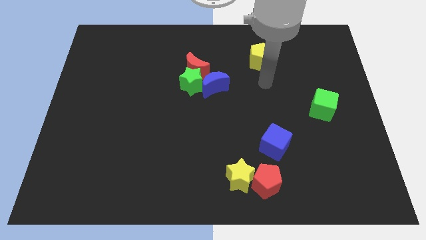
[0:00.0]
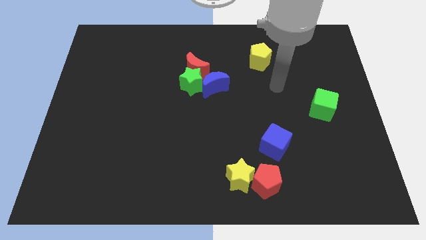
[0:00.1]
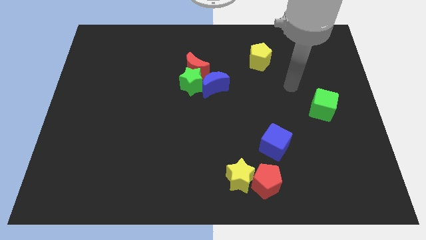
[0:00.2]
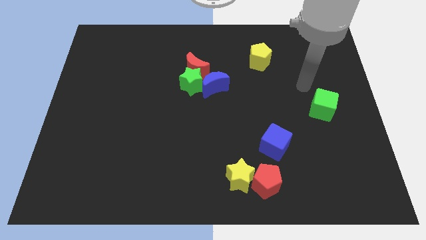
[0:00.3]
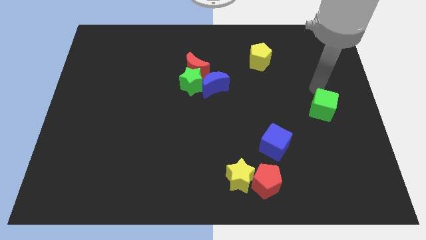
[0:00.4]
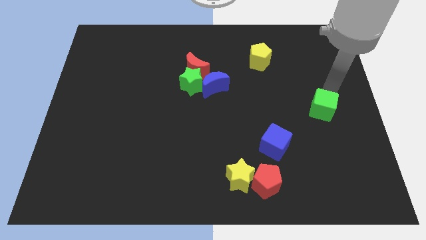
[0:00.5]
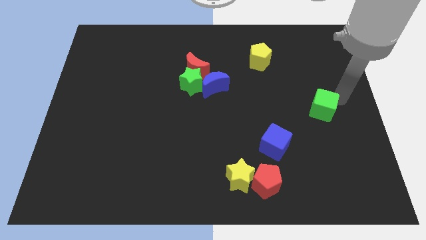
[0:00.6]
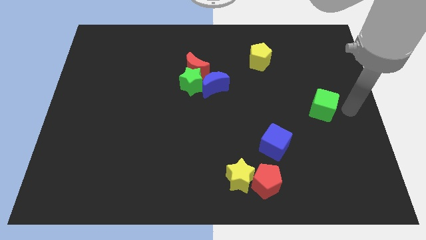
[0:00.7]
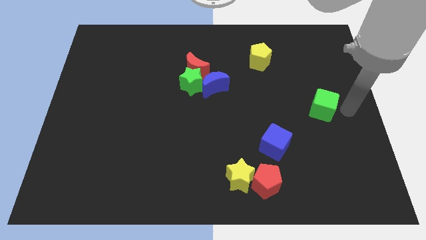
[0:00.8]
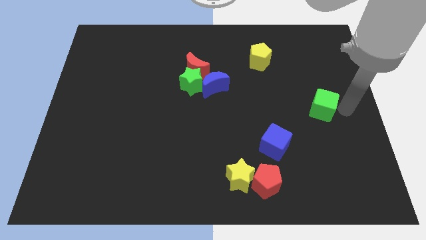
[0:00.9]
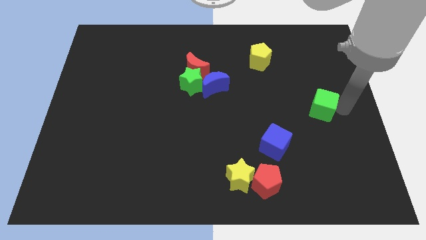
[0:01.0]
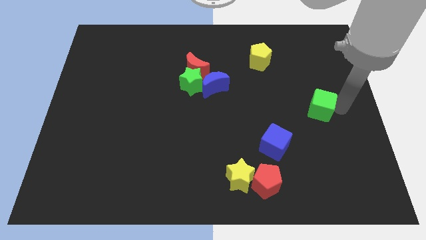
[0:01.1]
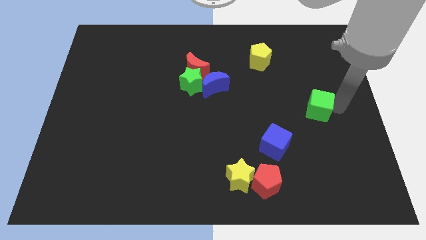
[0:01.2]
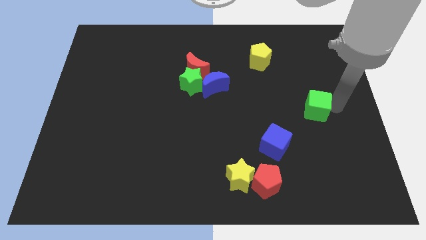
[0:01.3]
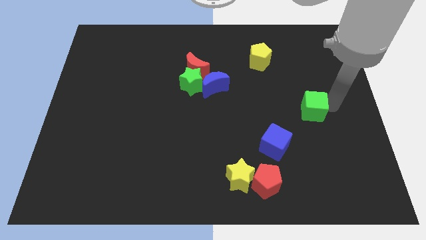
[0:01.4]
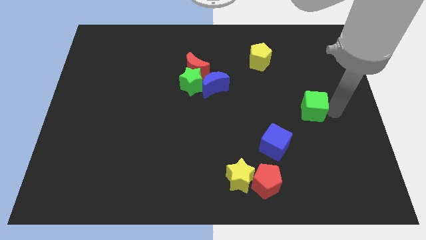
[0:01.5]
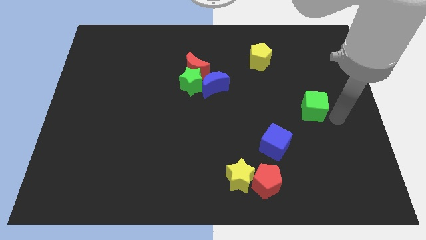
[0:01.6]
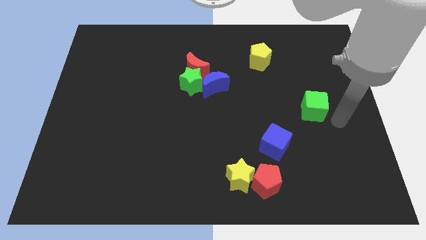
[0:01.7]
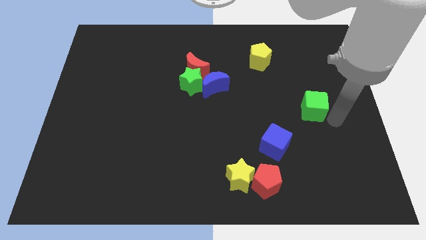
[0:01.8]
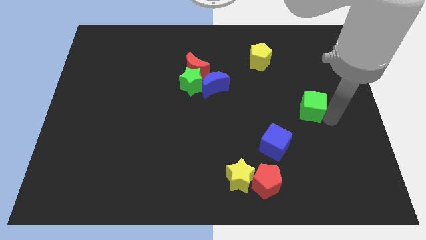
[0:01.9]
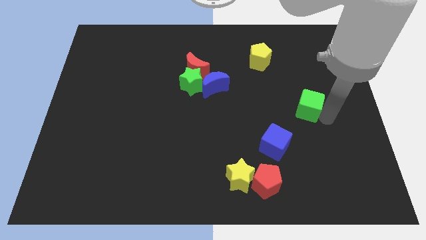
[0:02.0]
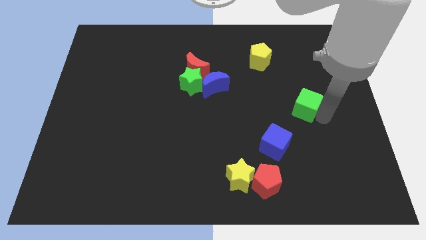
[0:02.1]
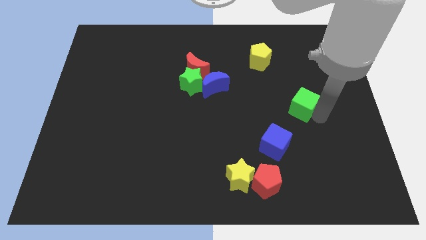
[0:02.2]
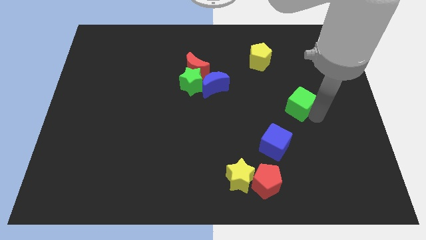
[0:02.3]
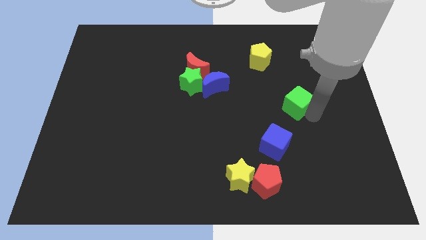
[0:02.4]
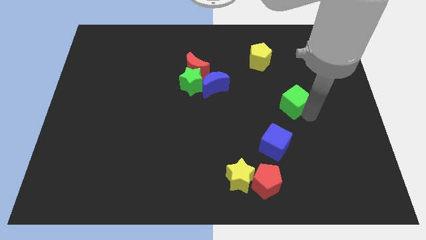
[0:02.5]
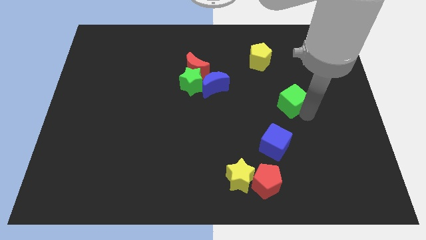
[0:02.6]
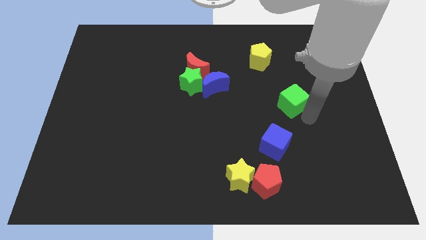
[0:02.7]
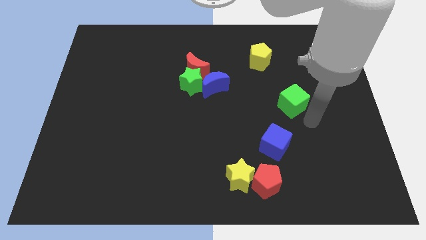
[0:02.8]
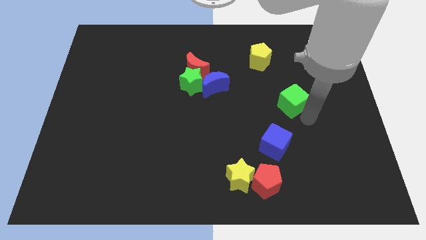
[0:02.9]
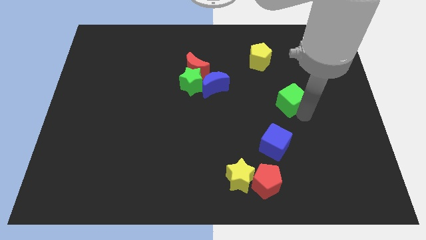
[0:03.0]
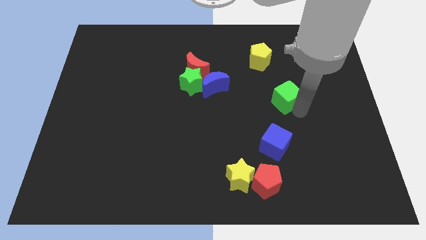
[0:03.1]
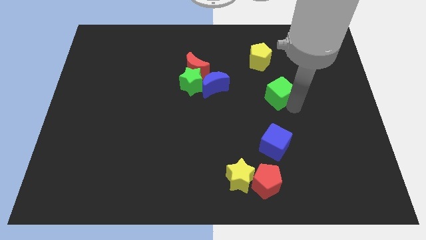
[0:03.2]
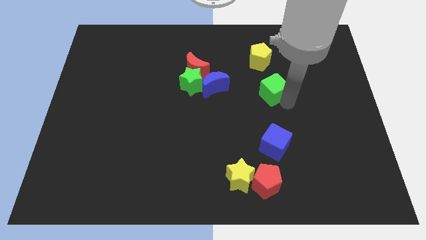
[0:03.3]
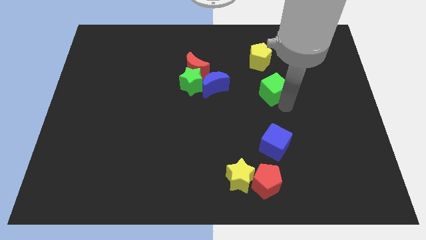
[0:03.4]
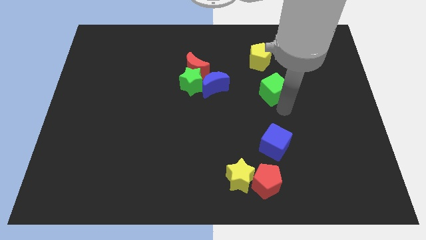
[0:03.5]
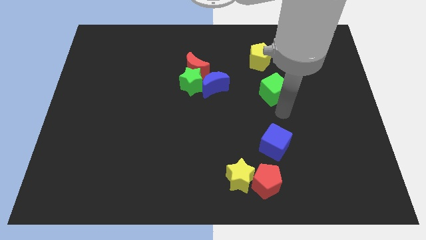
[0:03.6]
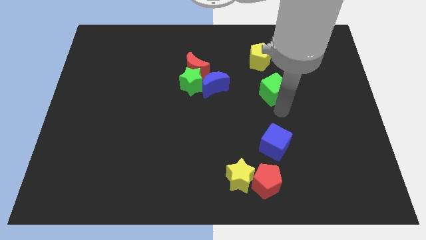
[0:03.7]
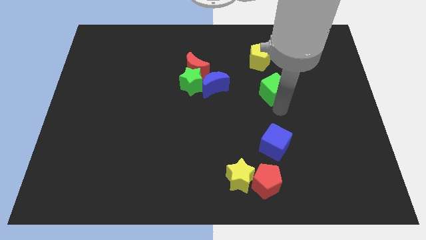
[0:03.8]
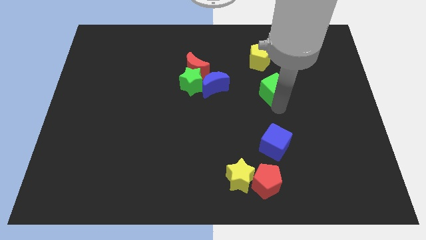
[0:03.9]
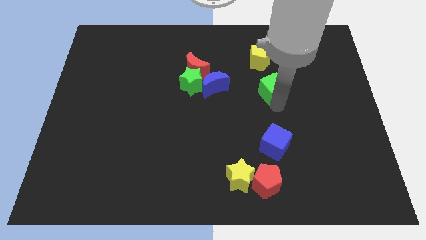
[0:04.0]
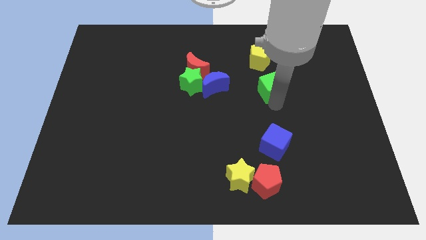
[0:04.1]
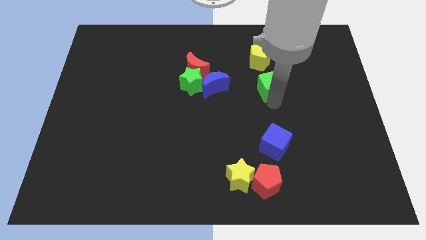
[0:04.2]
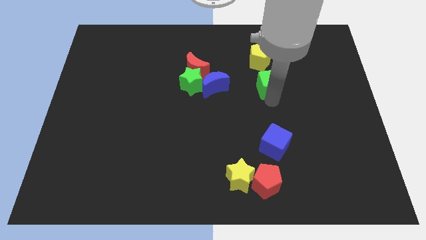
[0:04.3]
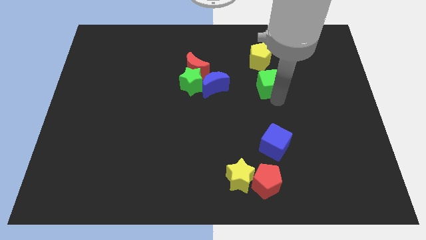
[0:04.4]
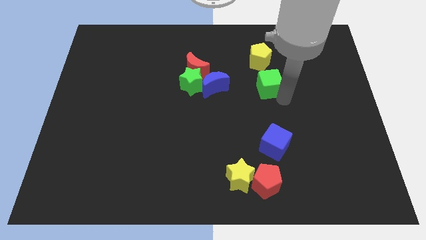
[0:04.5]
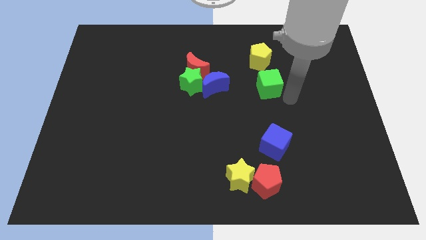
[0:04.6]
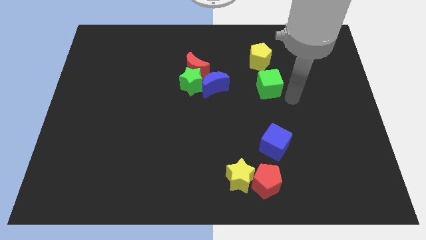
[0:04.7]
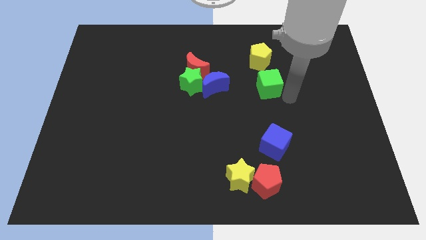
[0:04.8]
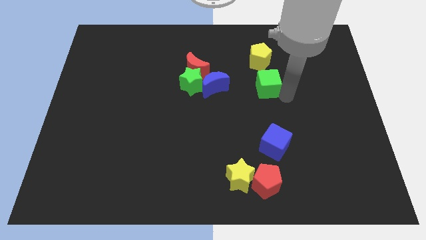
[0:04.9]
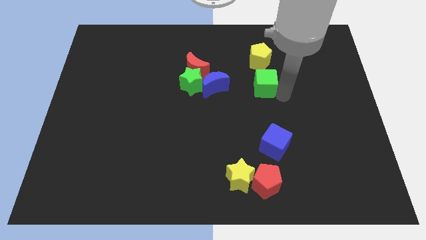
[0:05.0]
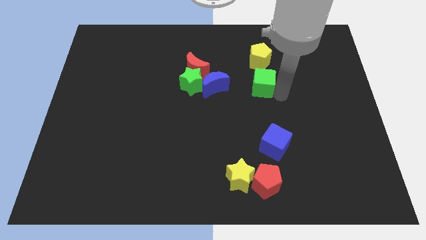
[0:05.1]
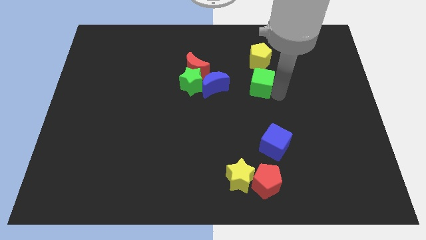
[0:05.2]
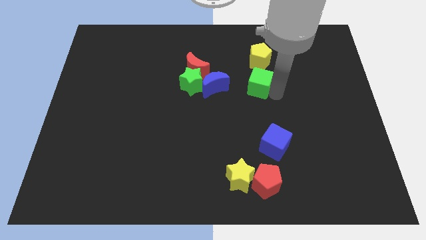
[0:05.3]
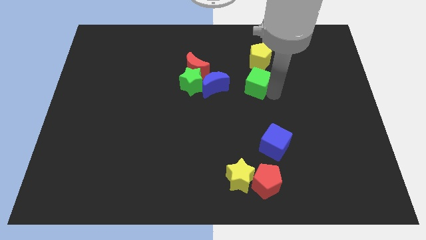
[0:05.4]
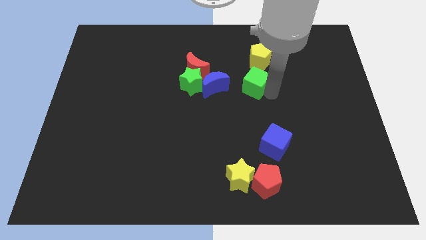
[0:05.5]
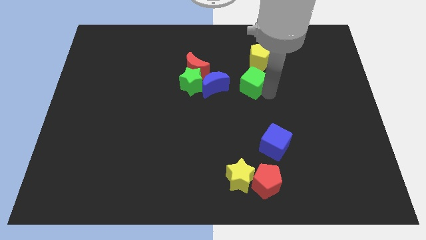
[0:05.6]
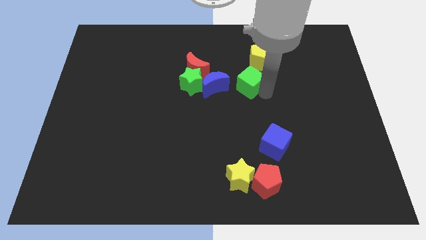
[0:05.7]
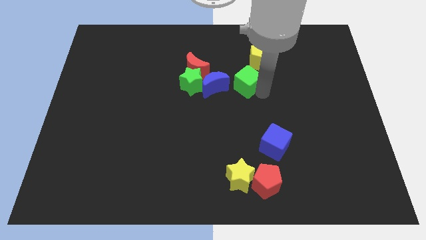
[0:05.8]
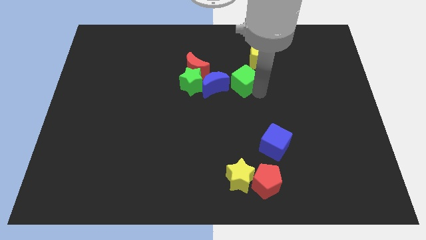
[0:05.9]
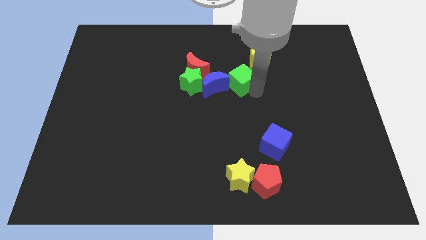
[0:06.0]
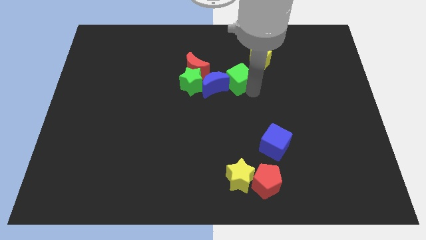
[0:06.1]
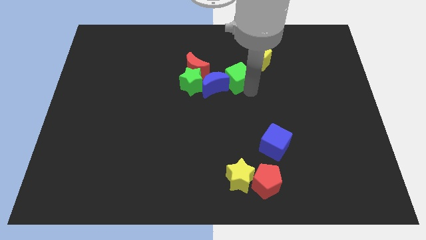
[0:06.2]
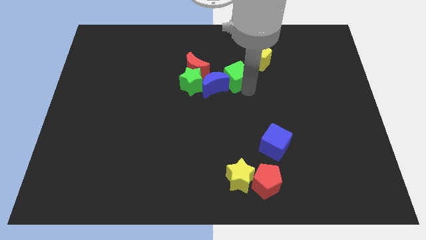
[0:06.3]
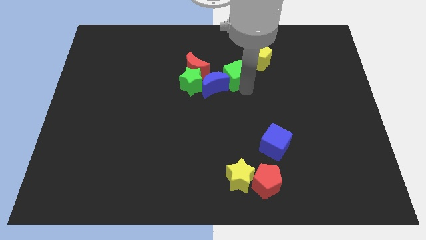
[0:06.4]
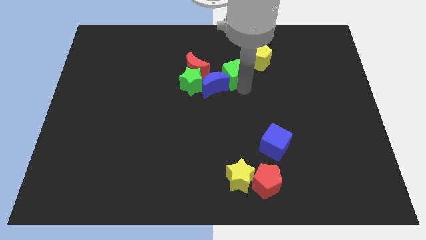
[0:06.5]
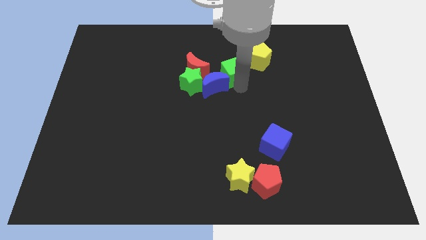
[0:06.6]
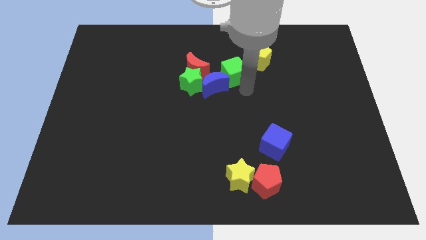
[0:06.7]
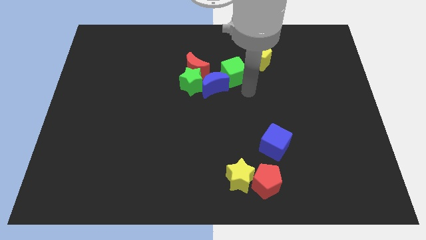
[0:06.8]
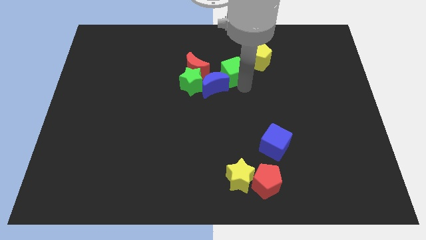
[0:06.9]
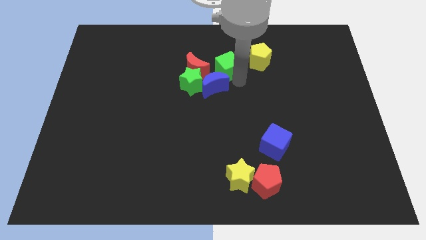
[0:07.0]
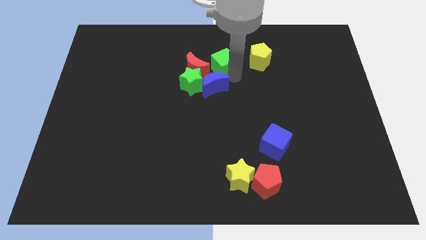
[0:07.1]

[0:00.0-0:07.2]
slide the green cube to the top right side of the red moon
